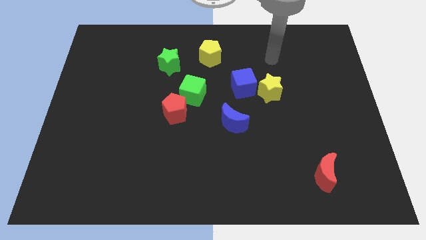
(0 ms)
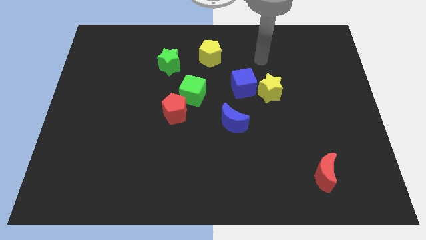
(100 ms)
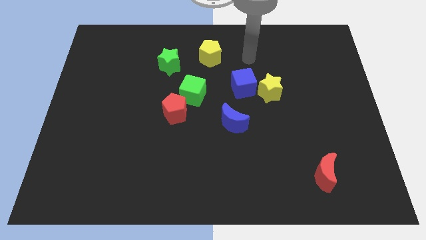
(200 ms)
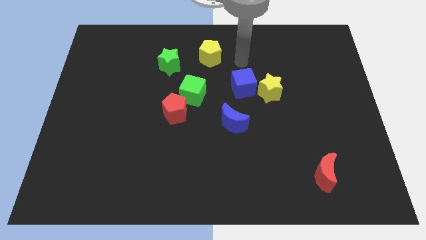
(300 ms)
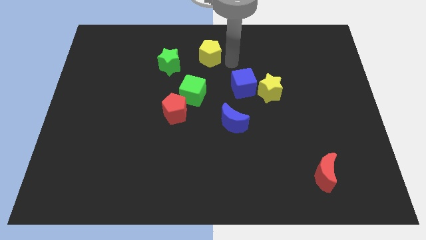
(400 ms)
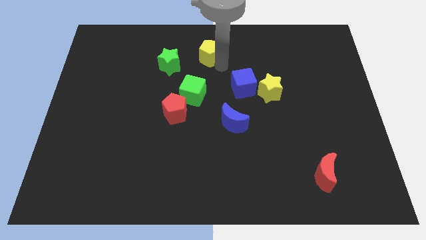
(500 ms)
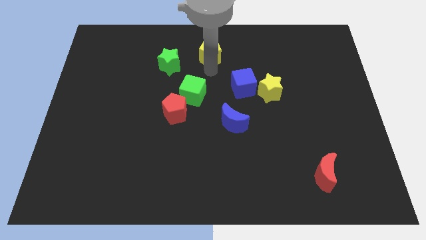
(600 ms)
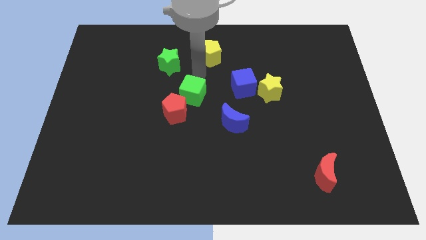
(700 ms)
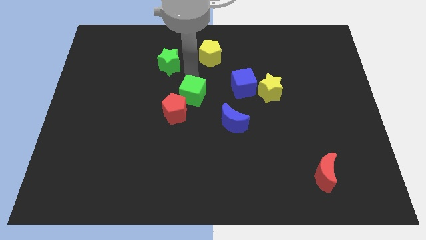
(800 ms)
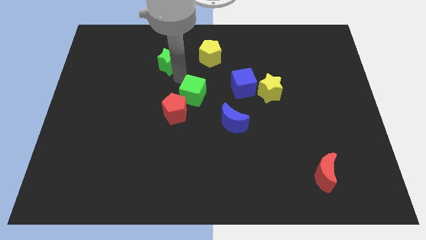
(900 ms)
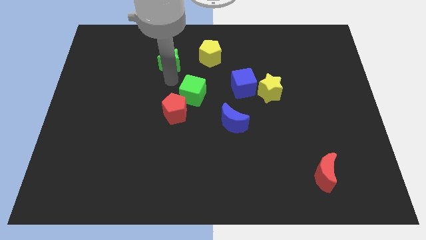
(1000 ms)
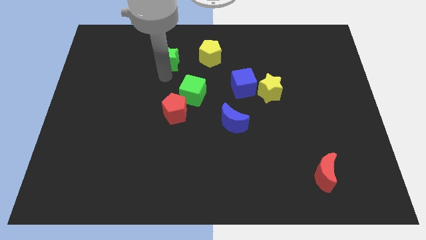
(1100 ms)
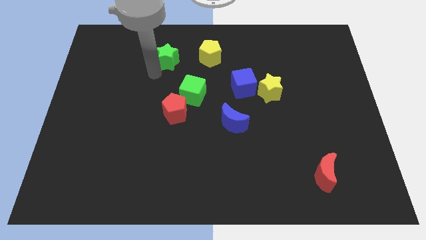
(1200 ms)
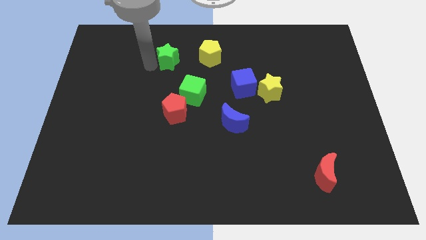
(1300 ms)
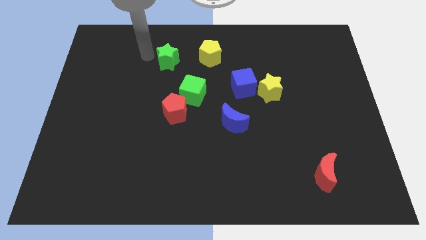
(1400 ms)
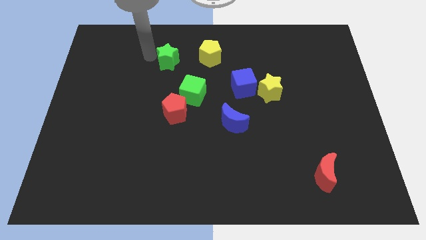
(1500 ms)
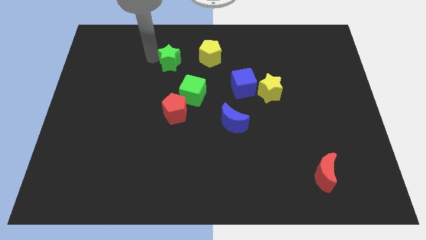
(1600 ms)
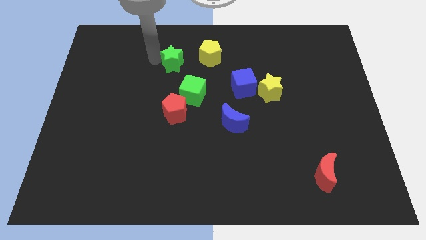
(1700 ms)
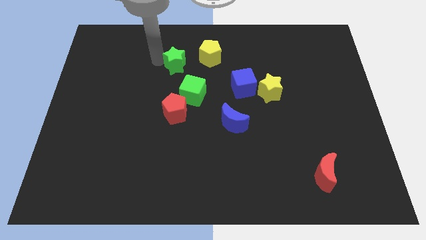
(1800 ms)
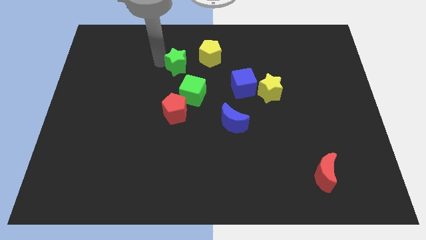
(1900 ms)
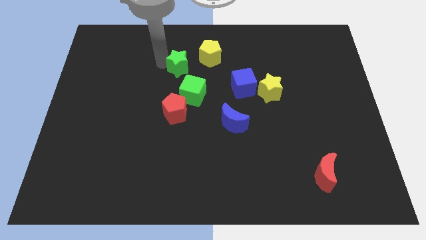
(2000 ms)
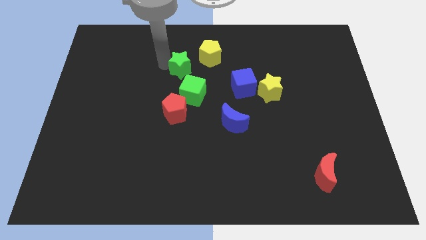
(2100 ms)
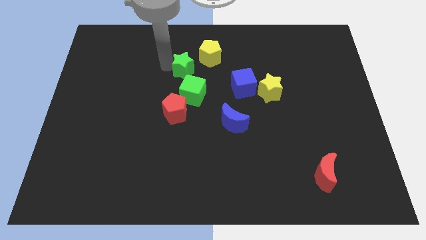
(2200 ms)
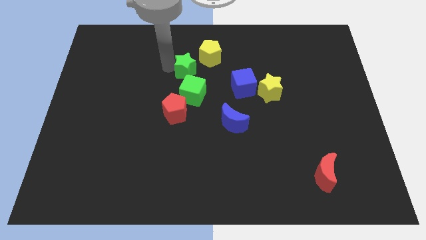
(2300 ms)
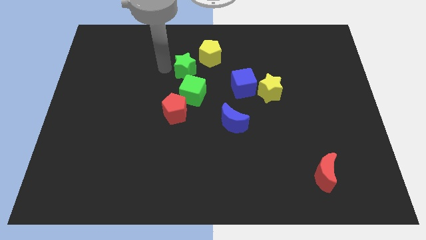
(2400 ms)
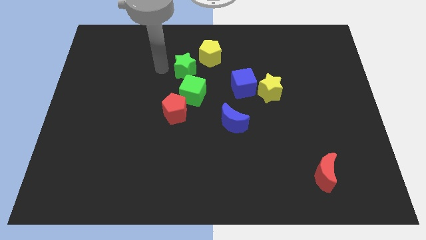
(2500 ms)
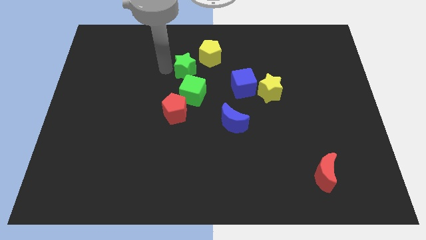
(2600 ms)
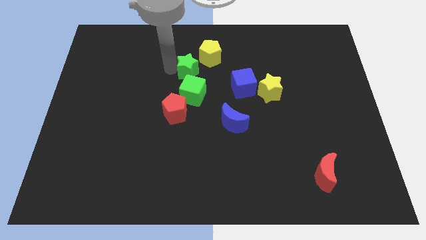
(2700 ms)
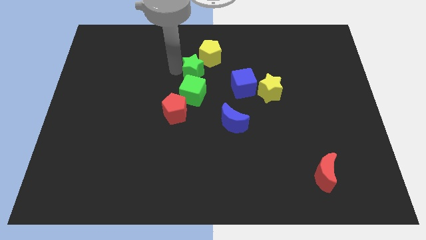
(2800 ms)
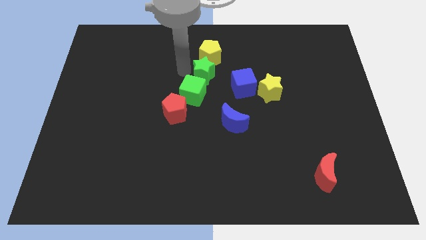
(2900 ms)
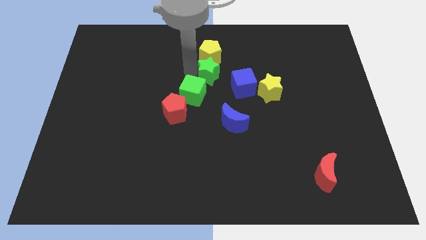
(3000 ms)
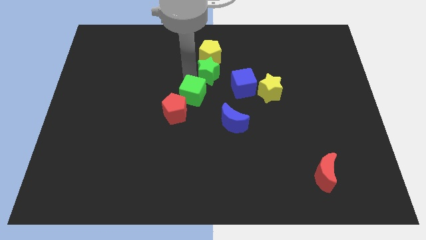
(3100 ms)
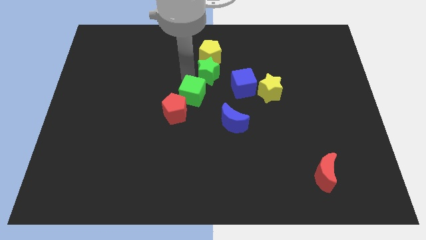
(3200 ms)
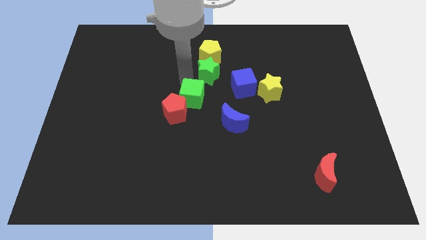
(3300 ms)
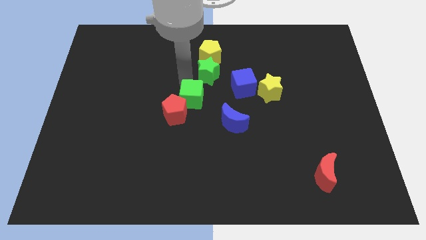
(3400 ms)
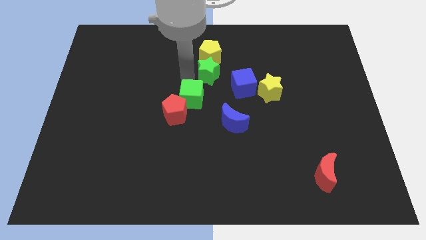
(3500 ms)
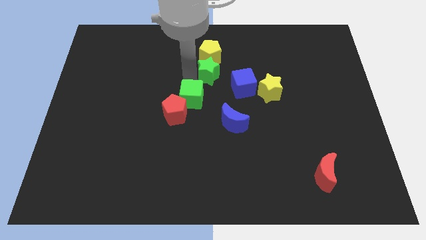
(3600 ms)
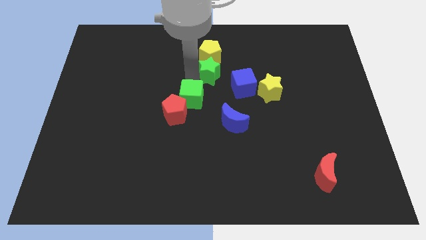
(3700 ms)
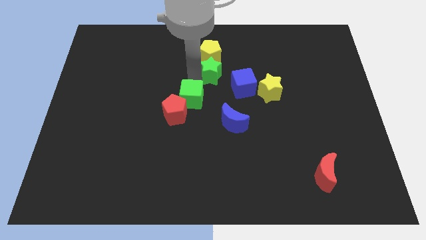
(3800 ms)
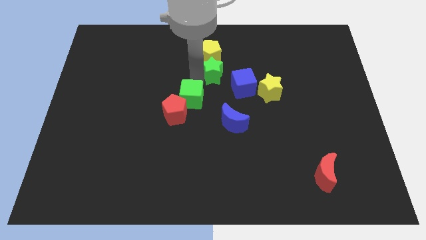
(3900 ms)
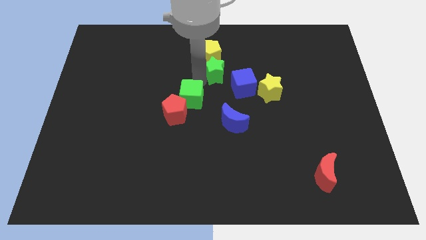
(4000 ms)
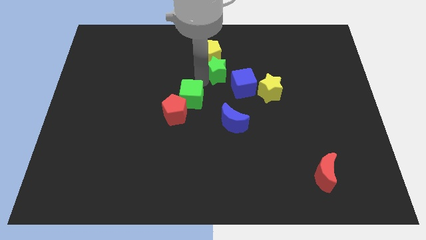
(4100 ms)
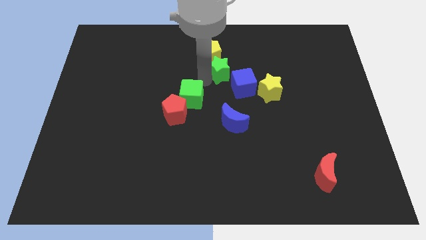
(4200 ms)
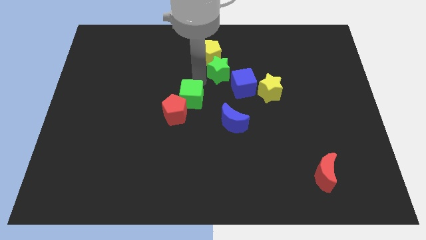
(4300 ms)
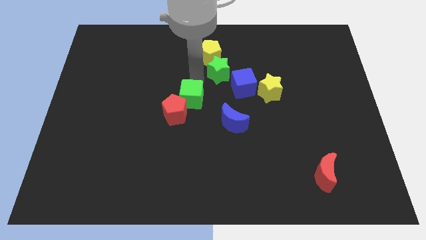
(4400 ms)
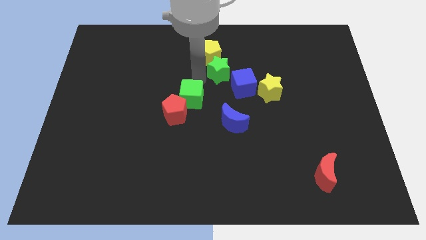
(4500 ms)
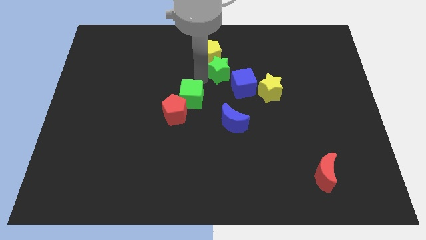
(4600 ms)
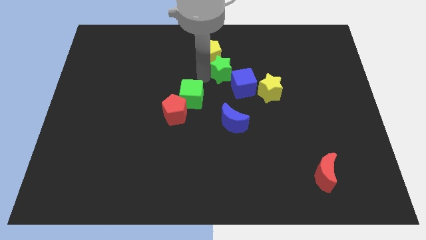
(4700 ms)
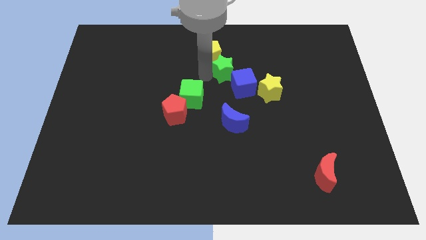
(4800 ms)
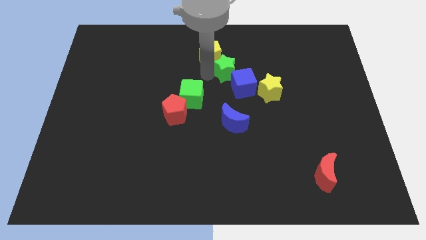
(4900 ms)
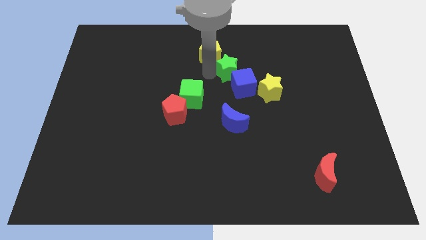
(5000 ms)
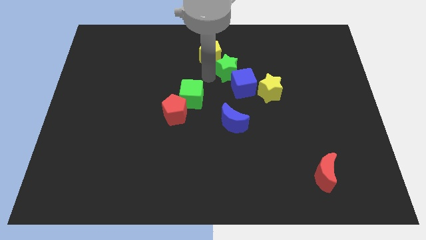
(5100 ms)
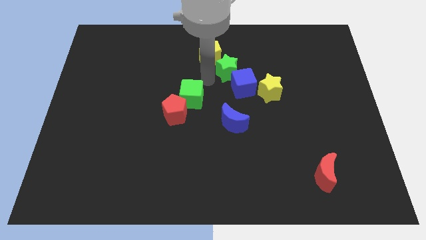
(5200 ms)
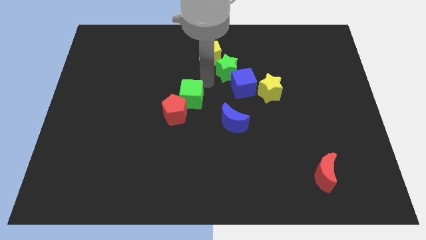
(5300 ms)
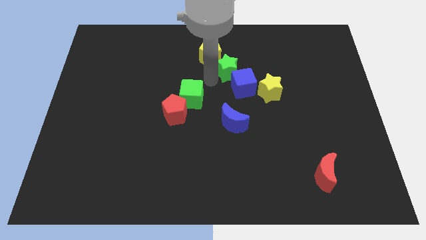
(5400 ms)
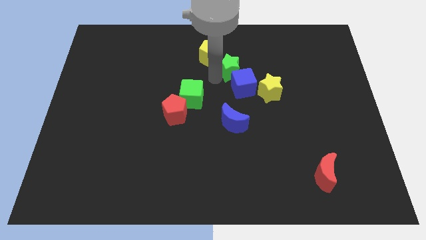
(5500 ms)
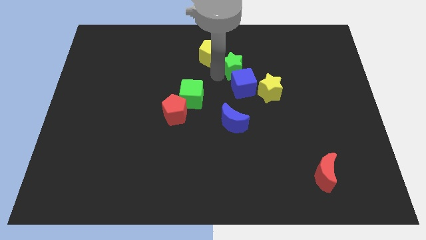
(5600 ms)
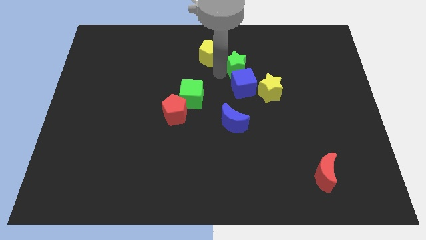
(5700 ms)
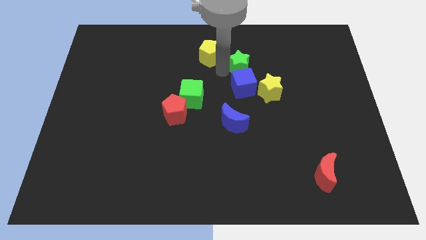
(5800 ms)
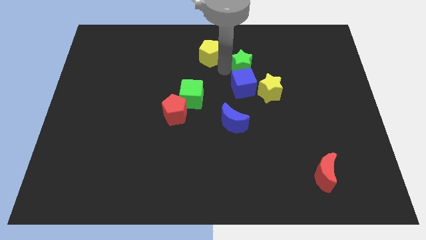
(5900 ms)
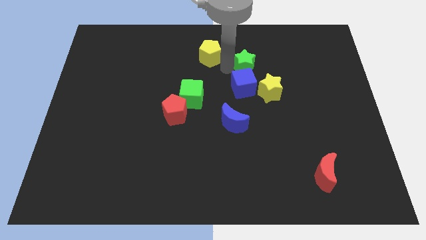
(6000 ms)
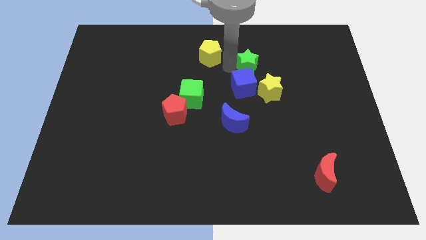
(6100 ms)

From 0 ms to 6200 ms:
push the green star to the top side of the yellow star

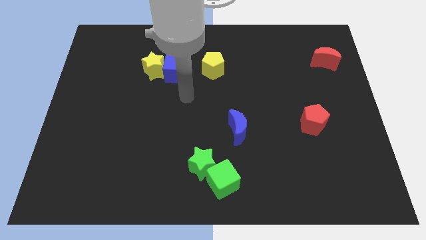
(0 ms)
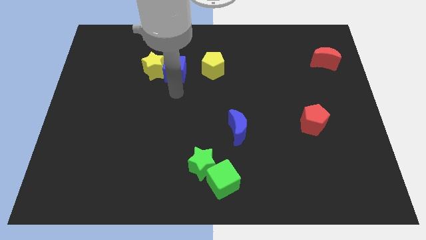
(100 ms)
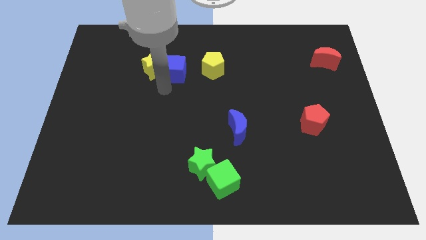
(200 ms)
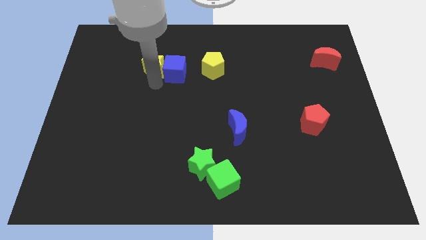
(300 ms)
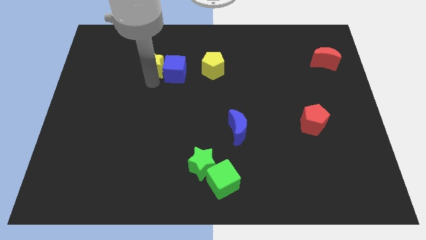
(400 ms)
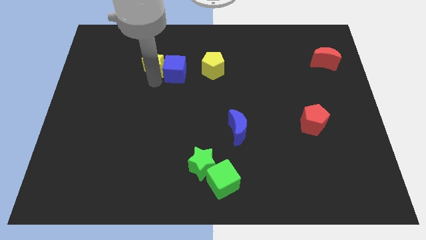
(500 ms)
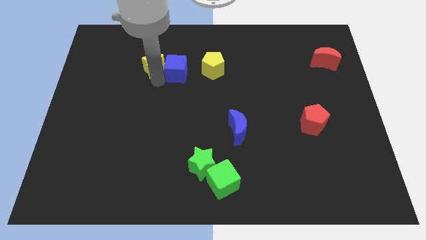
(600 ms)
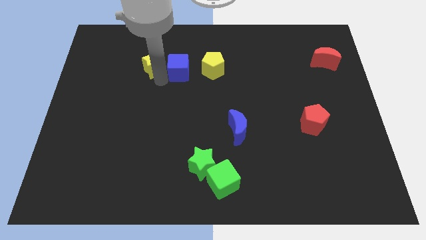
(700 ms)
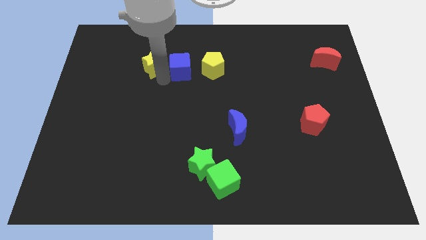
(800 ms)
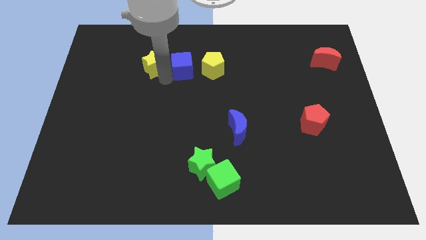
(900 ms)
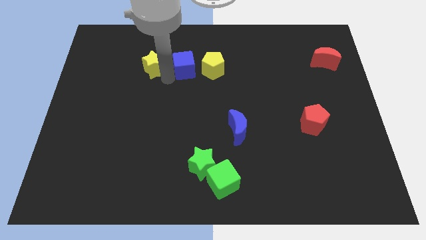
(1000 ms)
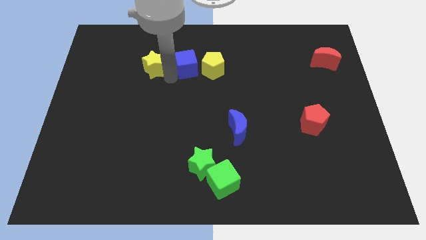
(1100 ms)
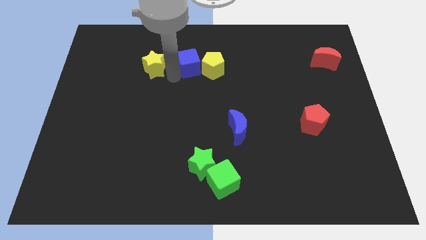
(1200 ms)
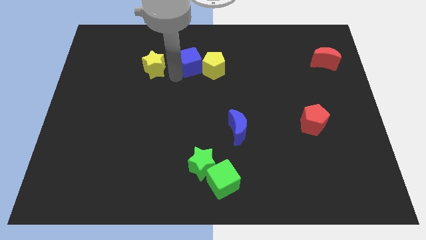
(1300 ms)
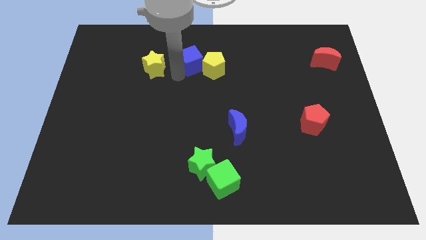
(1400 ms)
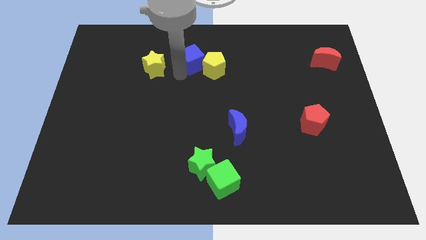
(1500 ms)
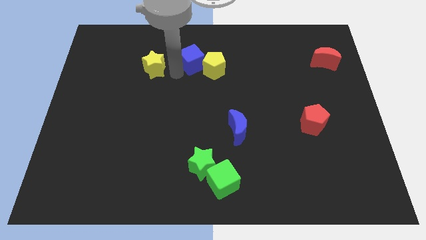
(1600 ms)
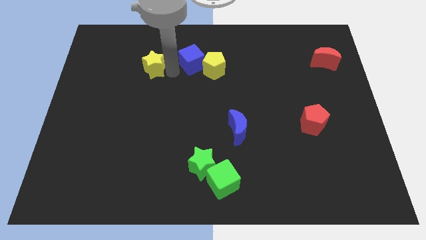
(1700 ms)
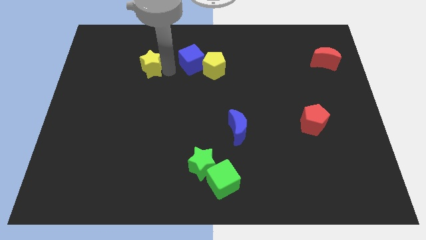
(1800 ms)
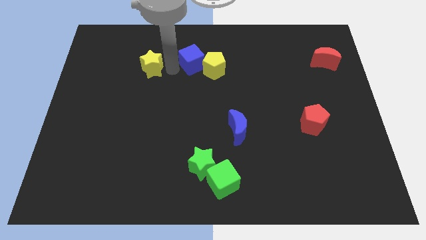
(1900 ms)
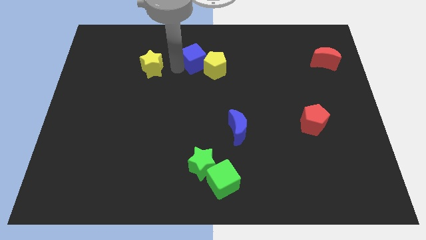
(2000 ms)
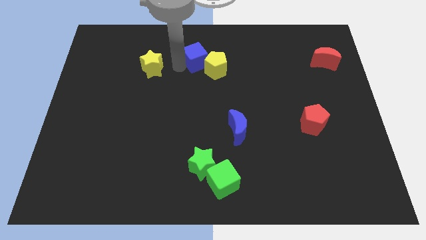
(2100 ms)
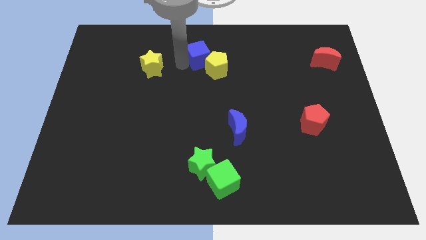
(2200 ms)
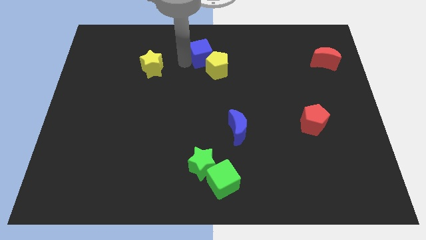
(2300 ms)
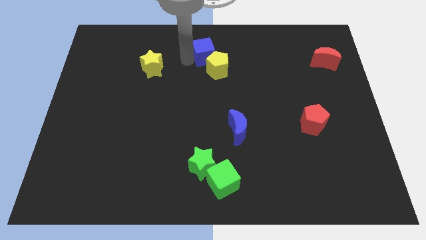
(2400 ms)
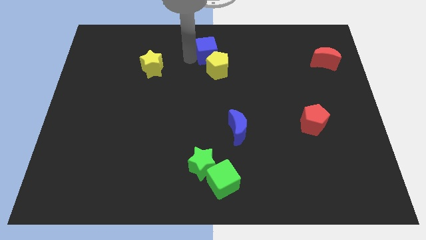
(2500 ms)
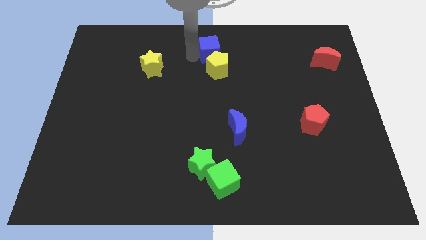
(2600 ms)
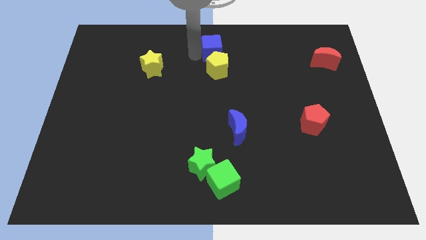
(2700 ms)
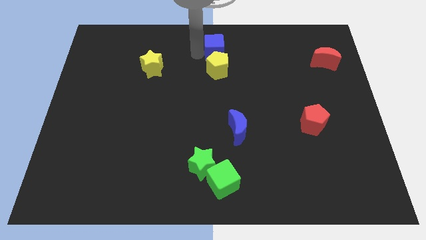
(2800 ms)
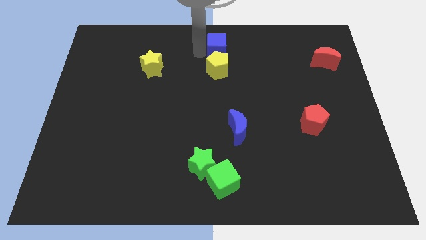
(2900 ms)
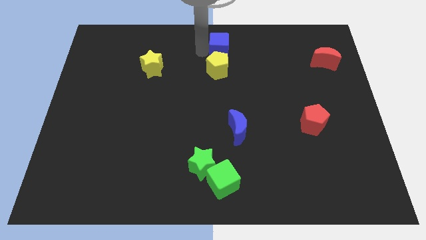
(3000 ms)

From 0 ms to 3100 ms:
slide the blue cube to the top right of the yellow pentagon
